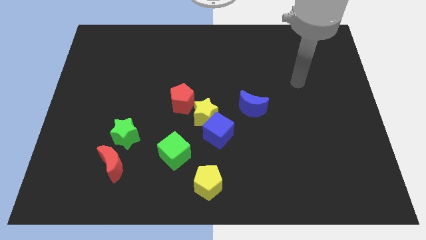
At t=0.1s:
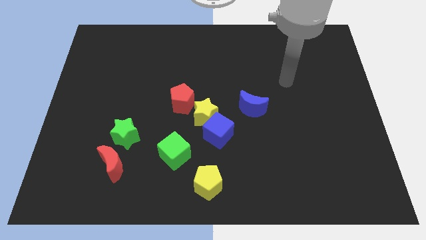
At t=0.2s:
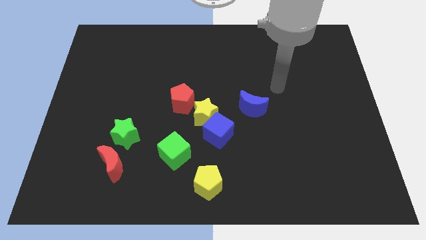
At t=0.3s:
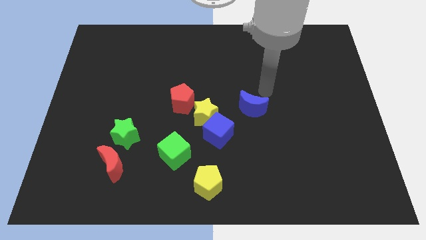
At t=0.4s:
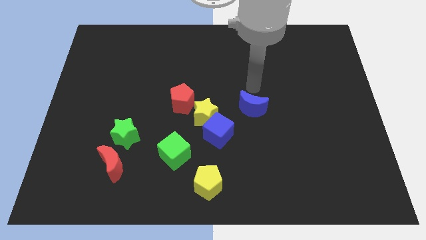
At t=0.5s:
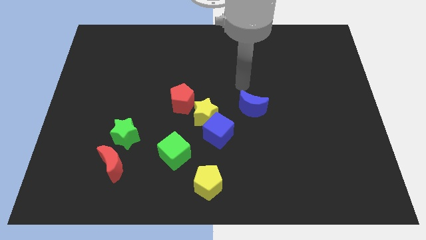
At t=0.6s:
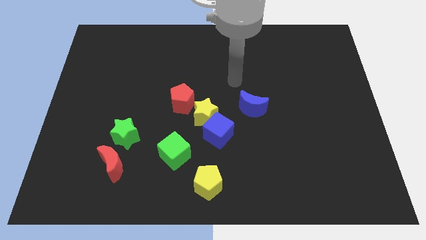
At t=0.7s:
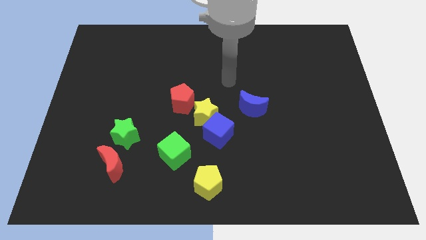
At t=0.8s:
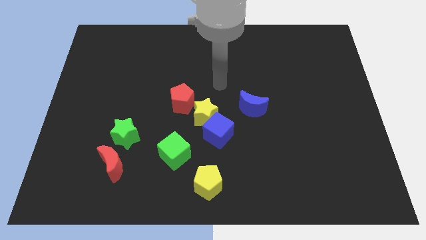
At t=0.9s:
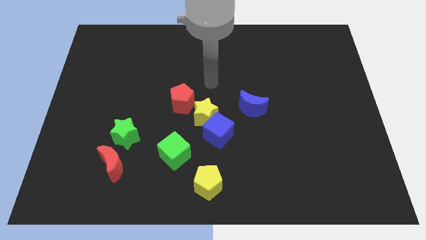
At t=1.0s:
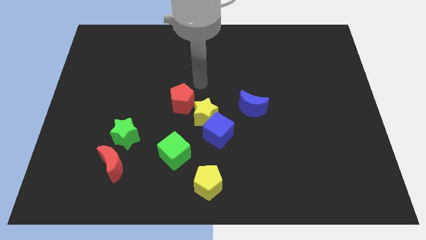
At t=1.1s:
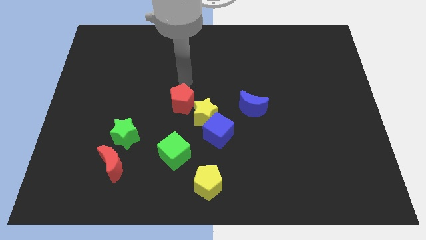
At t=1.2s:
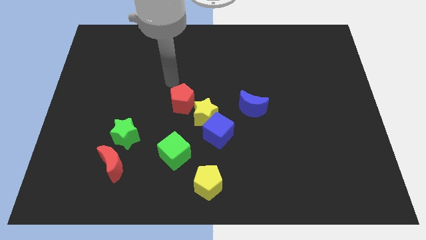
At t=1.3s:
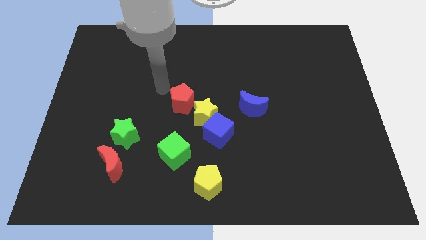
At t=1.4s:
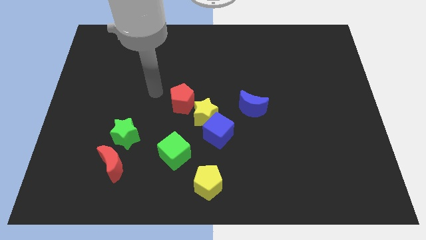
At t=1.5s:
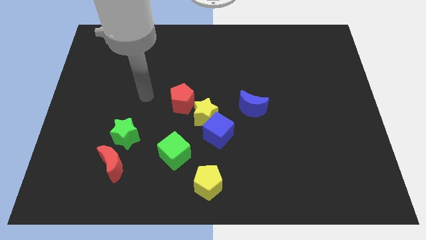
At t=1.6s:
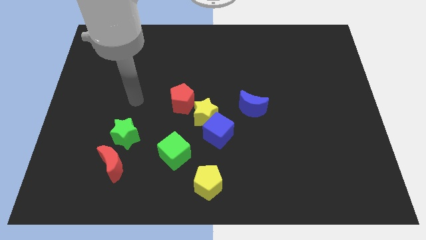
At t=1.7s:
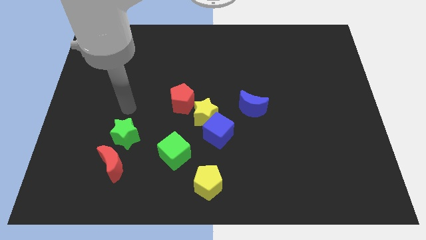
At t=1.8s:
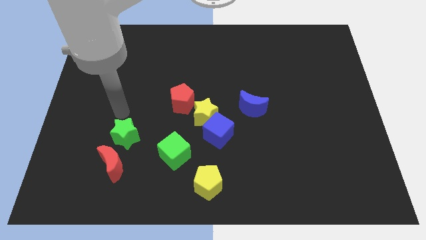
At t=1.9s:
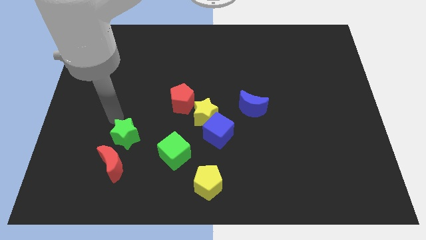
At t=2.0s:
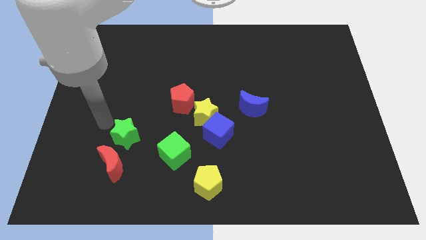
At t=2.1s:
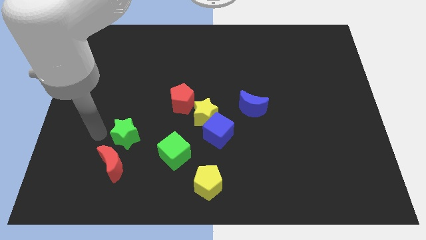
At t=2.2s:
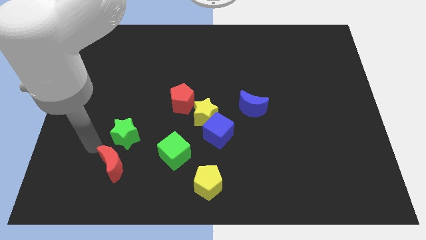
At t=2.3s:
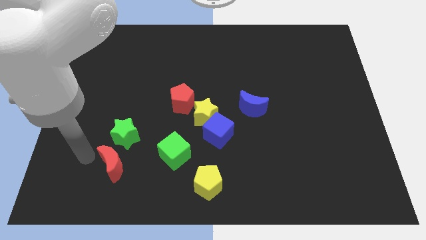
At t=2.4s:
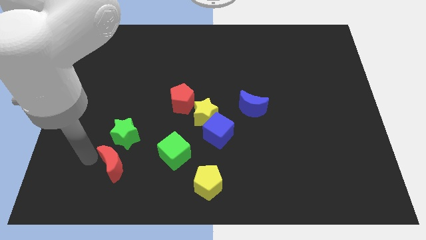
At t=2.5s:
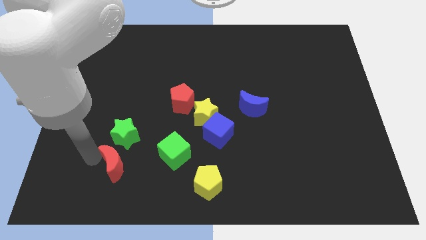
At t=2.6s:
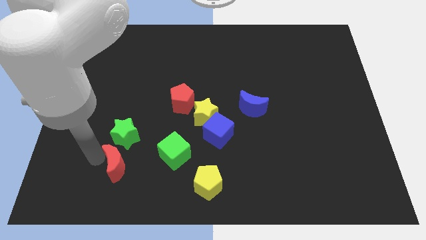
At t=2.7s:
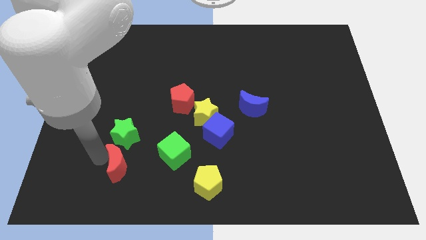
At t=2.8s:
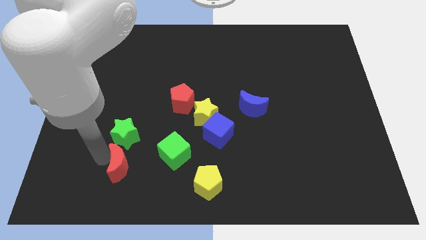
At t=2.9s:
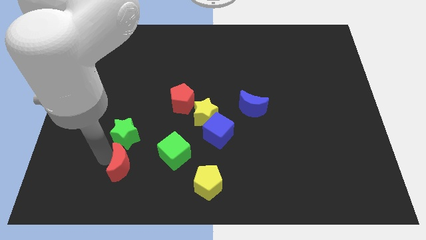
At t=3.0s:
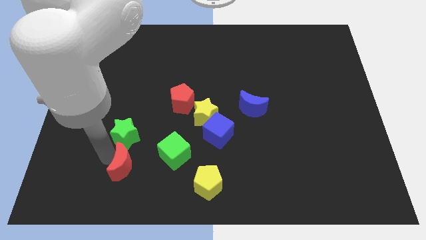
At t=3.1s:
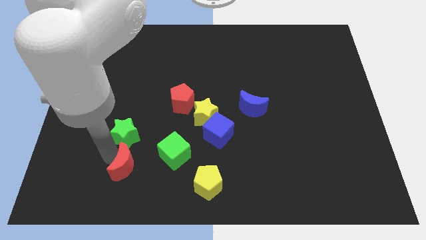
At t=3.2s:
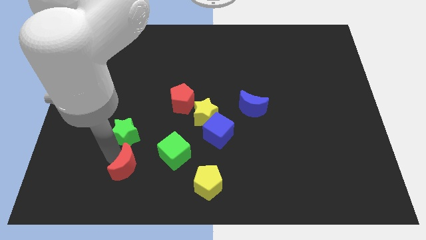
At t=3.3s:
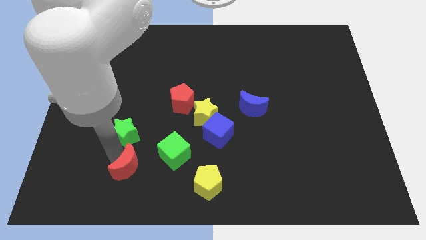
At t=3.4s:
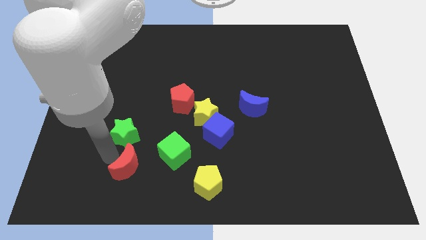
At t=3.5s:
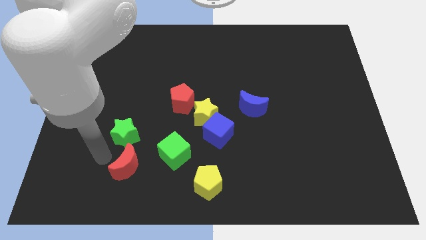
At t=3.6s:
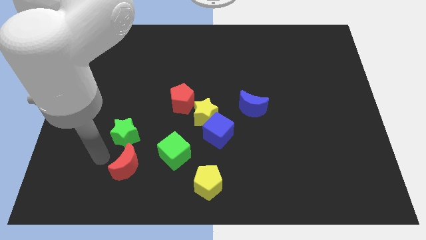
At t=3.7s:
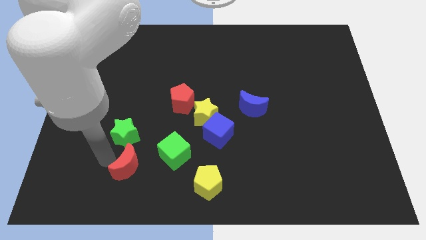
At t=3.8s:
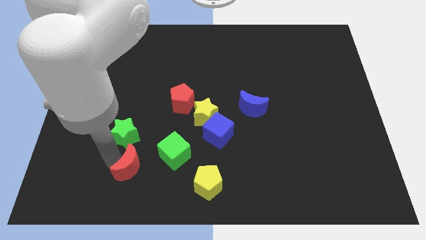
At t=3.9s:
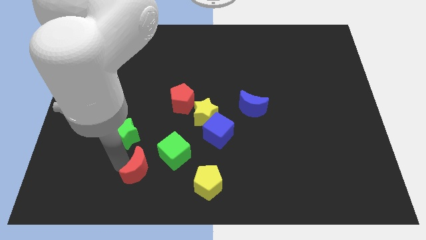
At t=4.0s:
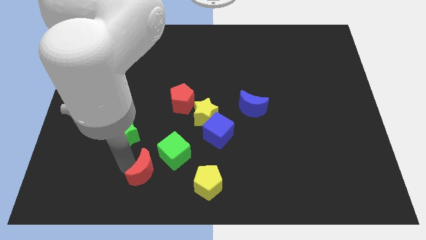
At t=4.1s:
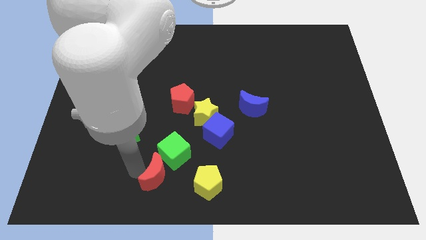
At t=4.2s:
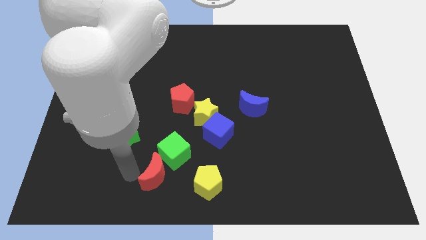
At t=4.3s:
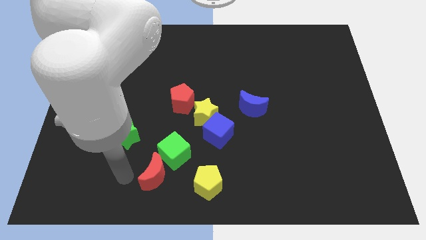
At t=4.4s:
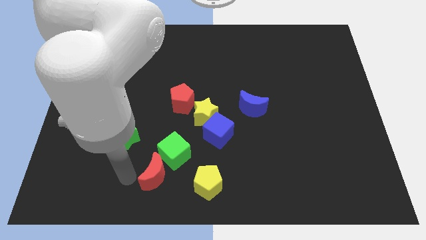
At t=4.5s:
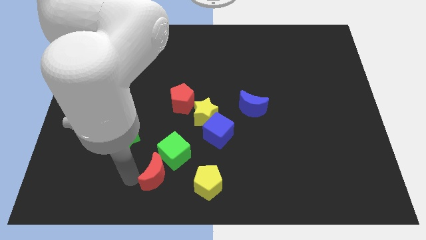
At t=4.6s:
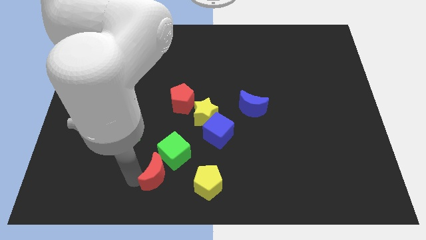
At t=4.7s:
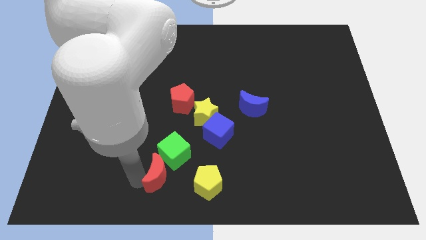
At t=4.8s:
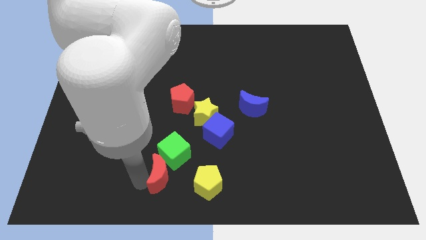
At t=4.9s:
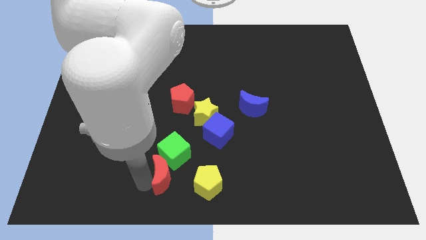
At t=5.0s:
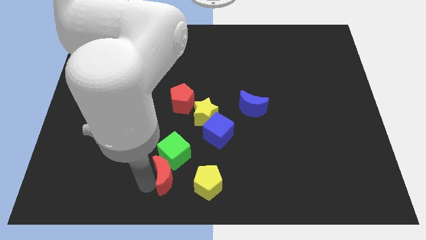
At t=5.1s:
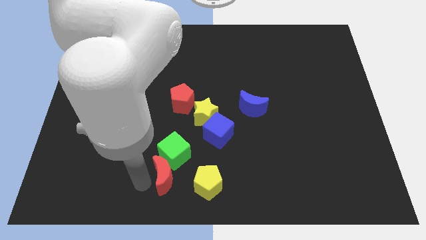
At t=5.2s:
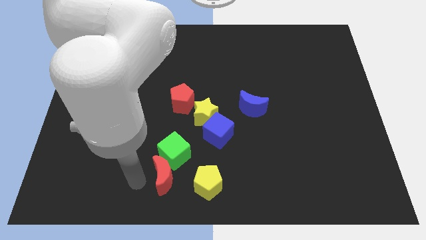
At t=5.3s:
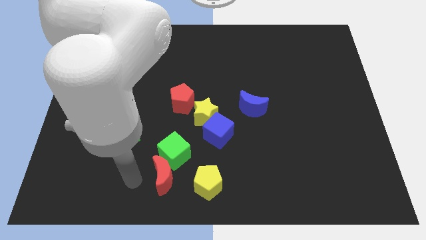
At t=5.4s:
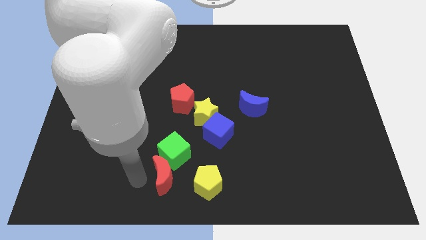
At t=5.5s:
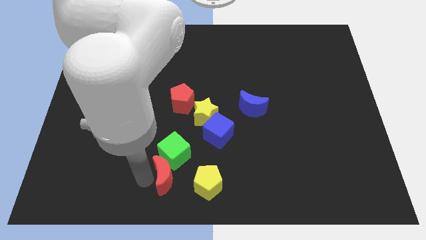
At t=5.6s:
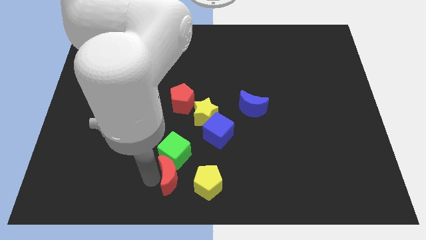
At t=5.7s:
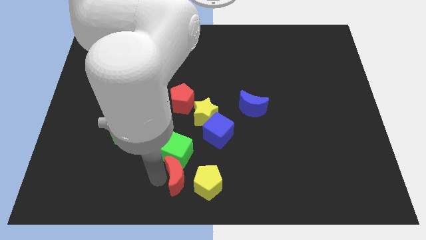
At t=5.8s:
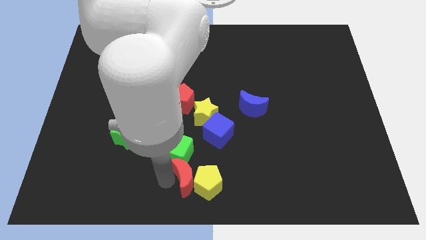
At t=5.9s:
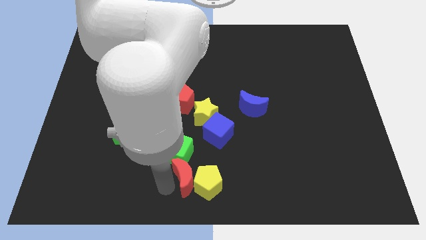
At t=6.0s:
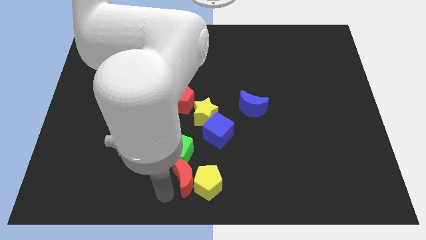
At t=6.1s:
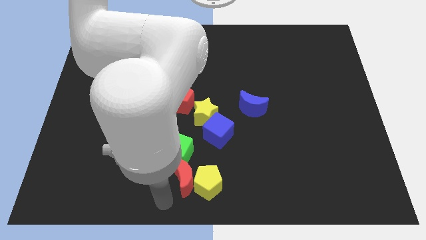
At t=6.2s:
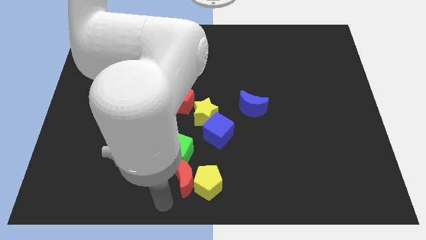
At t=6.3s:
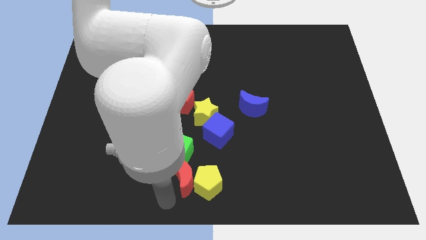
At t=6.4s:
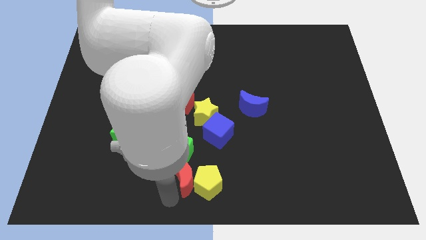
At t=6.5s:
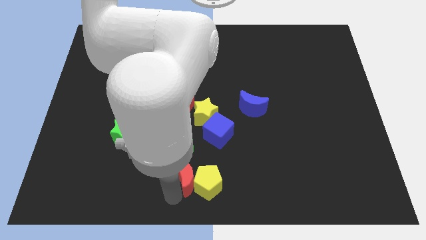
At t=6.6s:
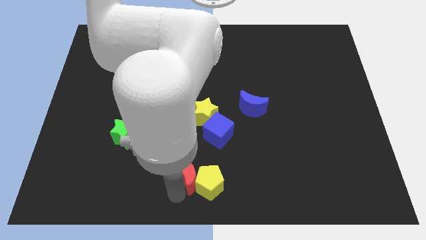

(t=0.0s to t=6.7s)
put the red moon below the yellow star

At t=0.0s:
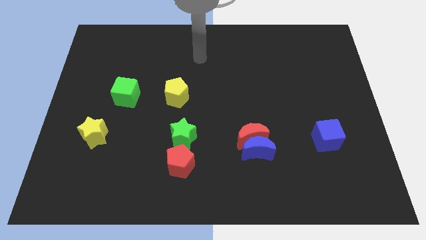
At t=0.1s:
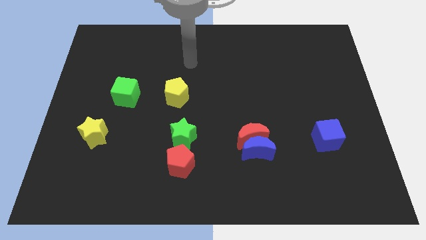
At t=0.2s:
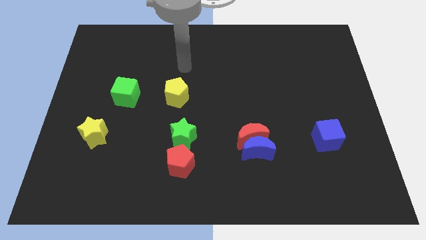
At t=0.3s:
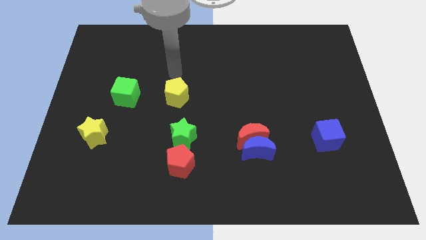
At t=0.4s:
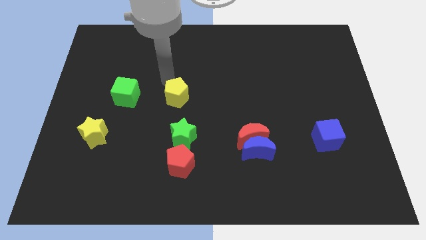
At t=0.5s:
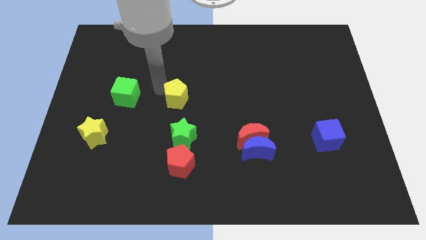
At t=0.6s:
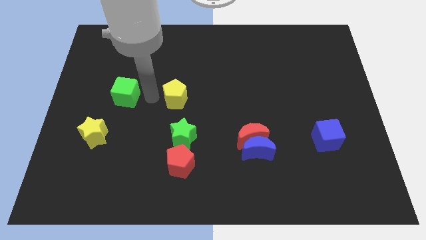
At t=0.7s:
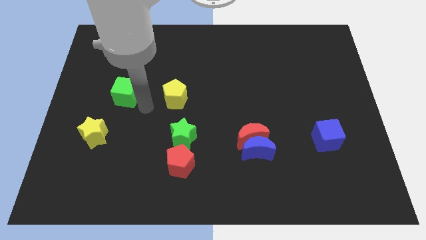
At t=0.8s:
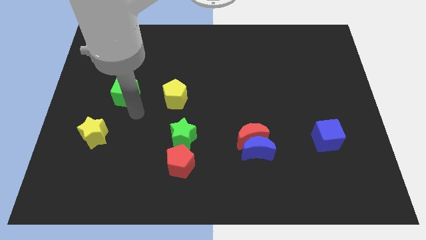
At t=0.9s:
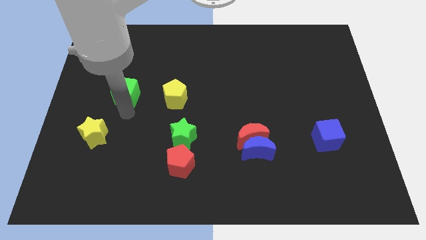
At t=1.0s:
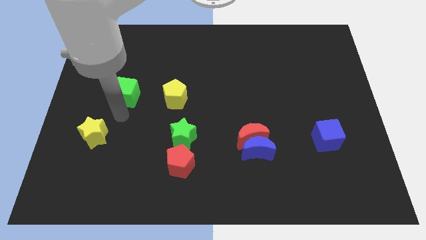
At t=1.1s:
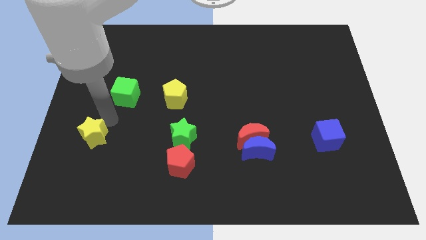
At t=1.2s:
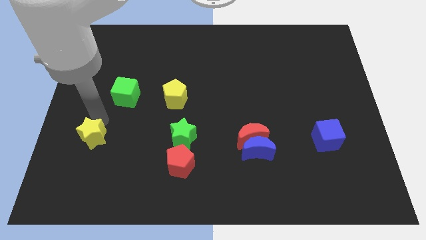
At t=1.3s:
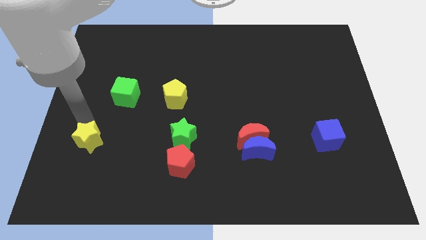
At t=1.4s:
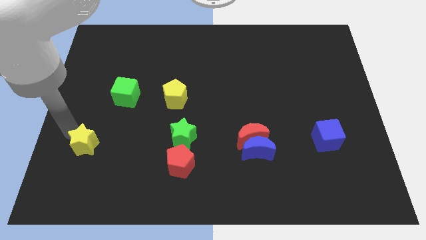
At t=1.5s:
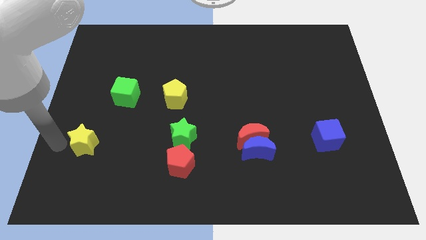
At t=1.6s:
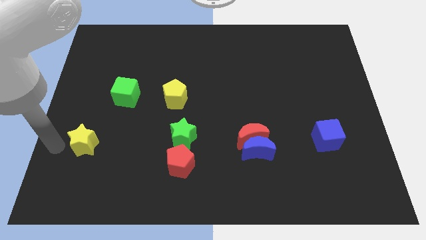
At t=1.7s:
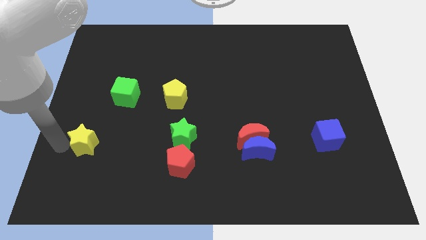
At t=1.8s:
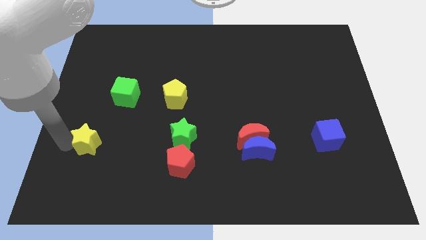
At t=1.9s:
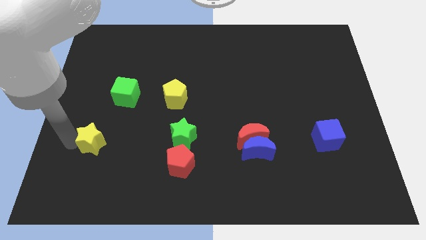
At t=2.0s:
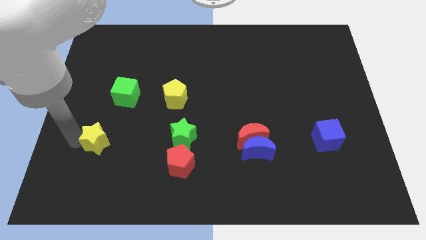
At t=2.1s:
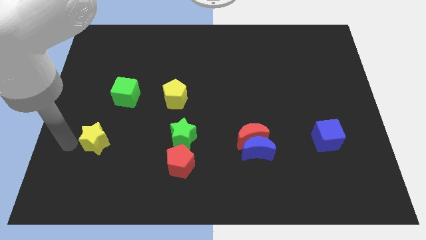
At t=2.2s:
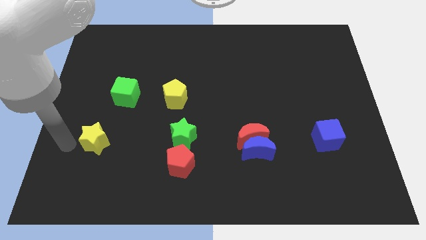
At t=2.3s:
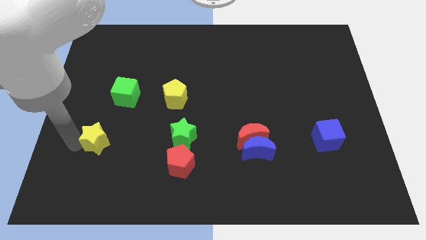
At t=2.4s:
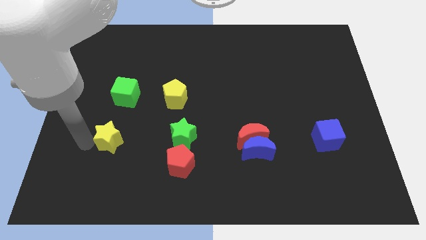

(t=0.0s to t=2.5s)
slide the yellow star to the left side of the green star
